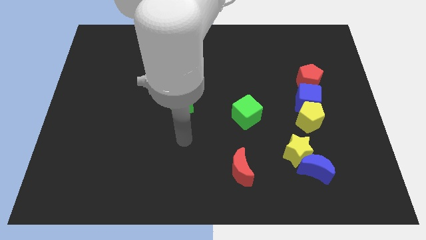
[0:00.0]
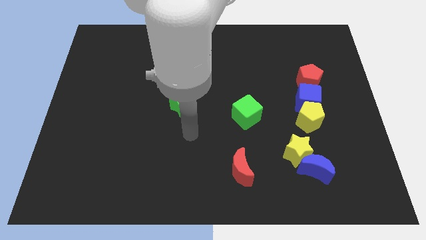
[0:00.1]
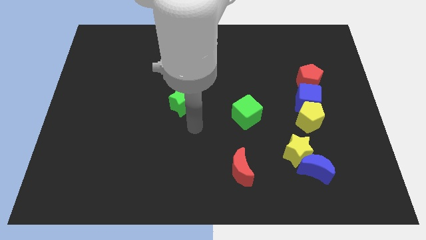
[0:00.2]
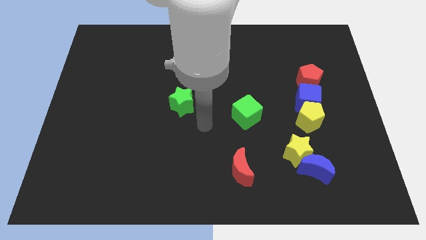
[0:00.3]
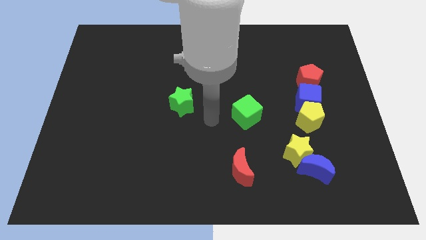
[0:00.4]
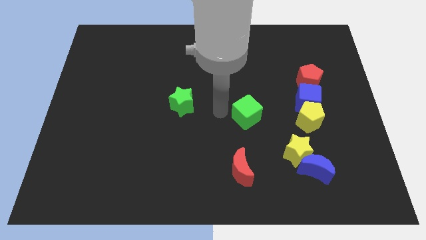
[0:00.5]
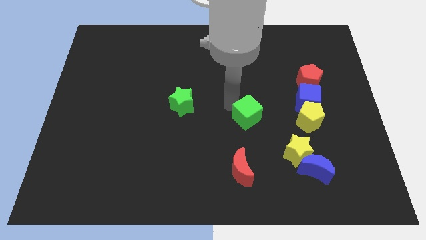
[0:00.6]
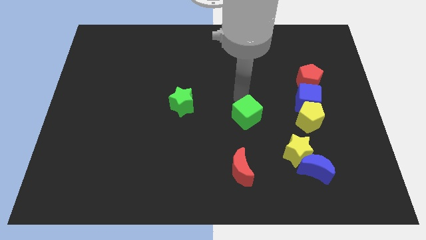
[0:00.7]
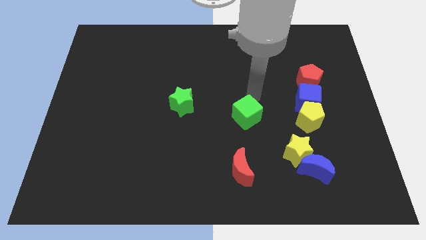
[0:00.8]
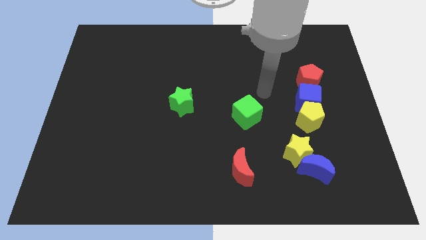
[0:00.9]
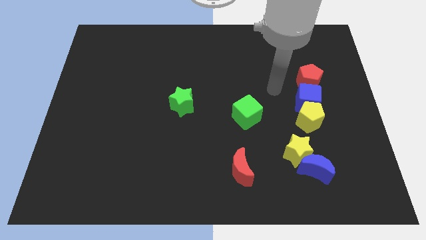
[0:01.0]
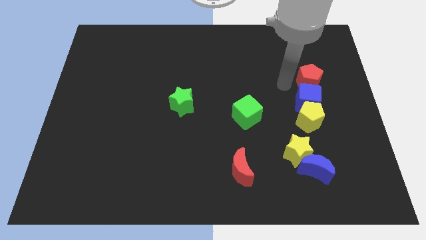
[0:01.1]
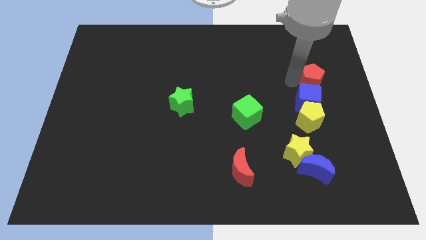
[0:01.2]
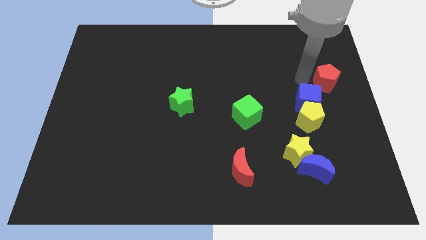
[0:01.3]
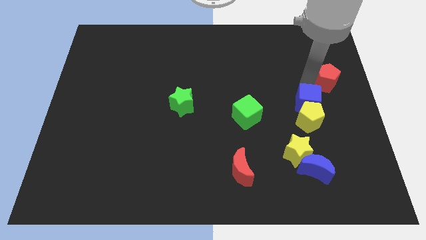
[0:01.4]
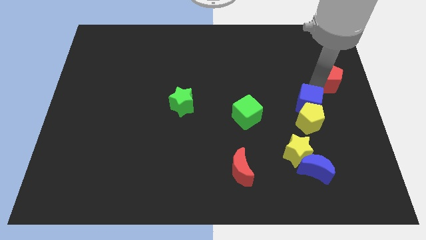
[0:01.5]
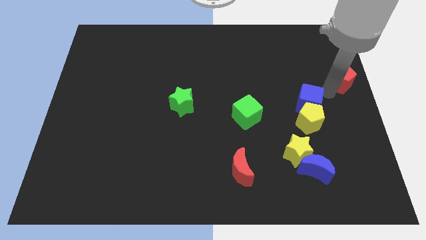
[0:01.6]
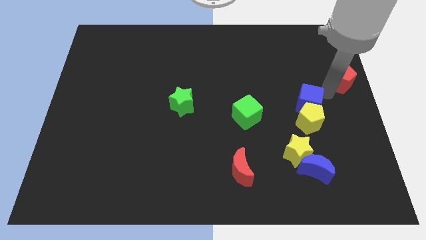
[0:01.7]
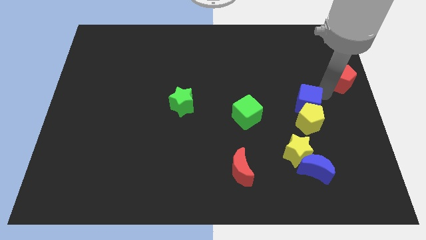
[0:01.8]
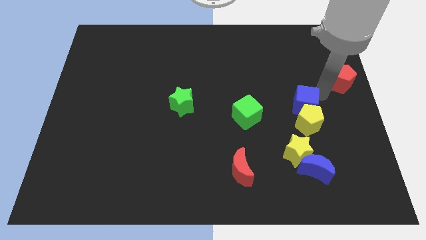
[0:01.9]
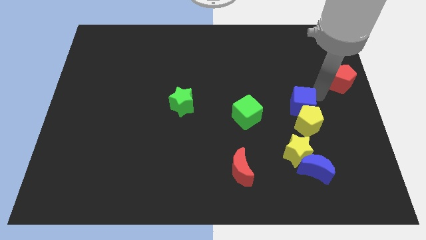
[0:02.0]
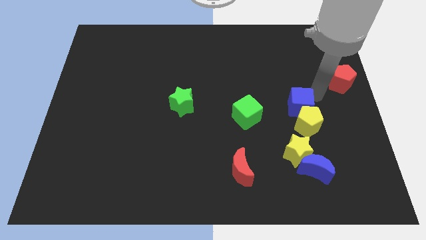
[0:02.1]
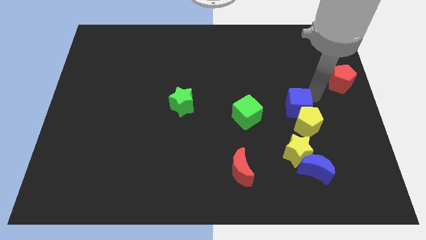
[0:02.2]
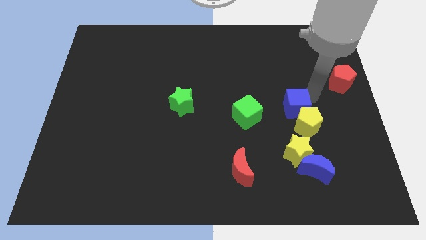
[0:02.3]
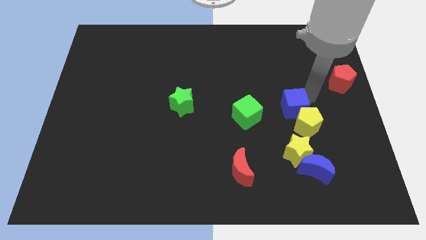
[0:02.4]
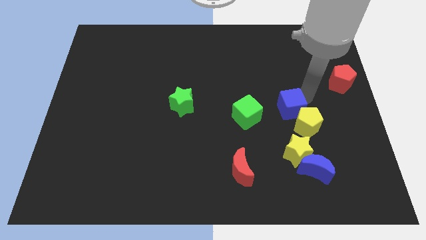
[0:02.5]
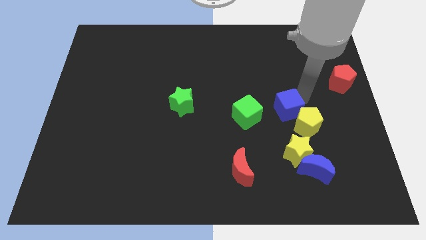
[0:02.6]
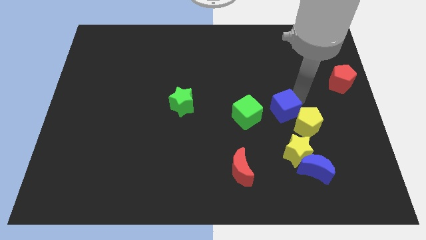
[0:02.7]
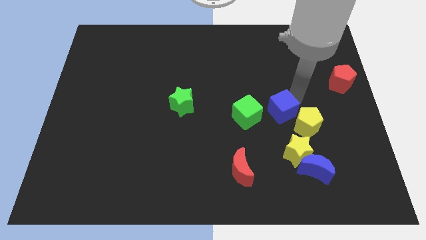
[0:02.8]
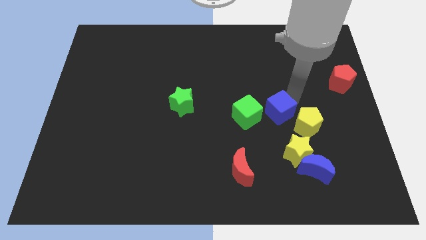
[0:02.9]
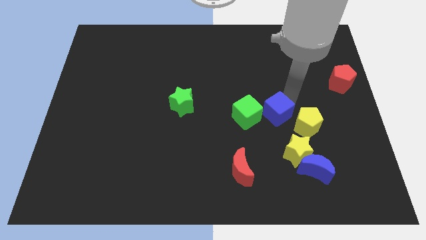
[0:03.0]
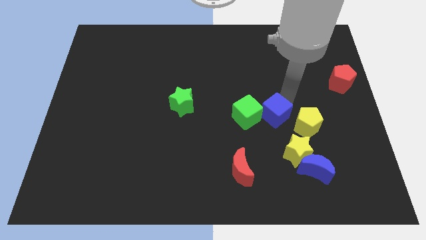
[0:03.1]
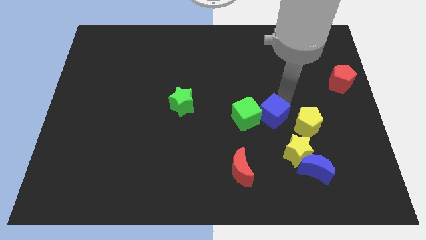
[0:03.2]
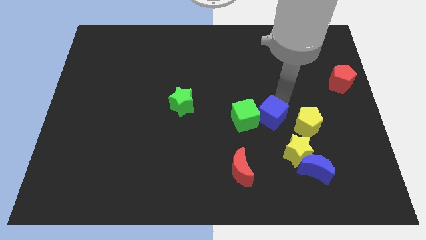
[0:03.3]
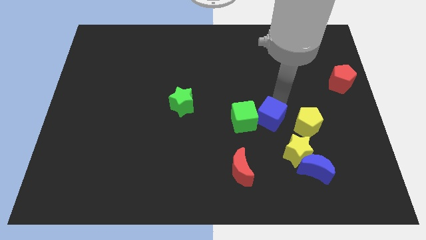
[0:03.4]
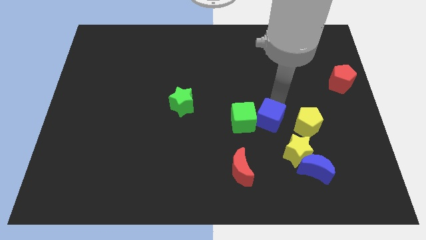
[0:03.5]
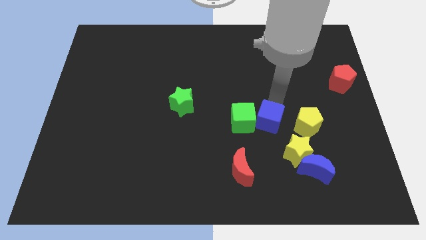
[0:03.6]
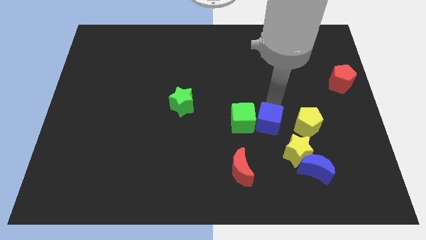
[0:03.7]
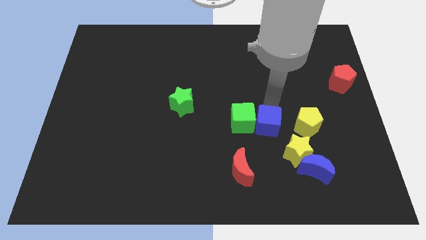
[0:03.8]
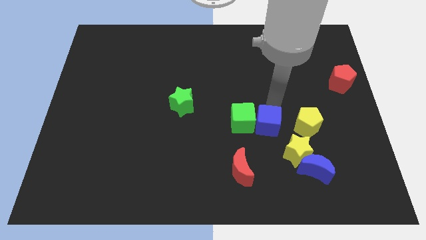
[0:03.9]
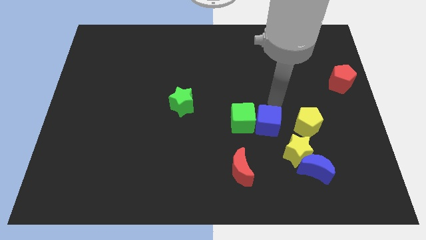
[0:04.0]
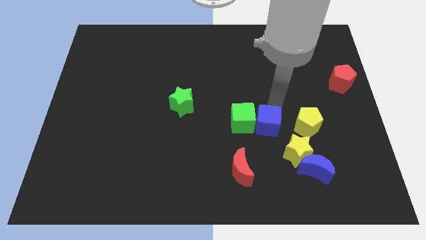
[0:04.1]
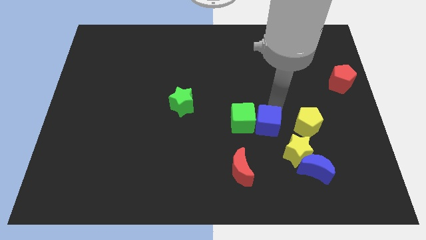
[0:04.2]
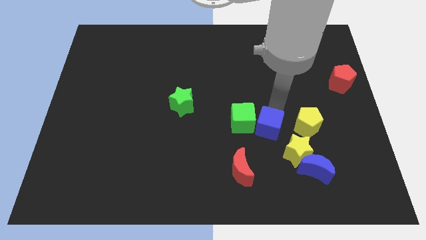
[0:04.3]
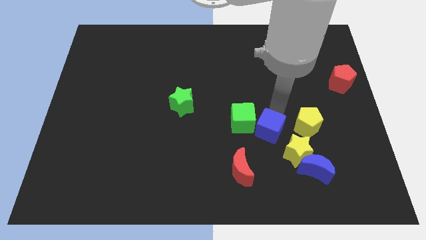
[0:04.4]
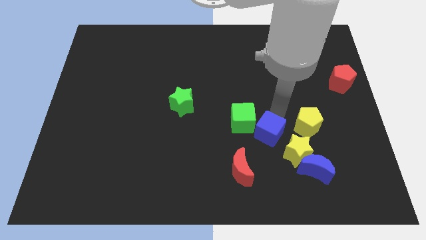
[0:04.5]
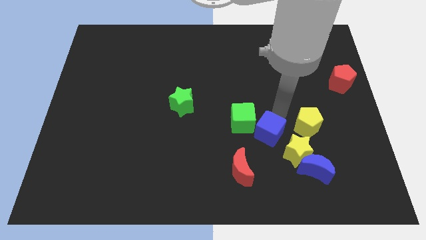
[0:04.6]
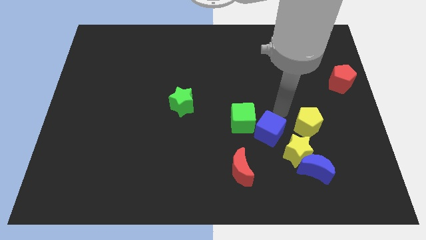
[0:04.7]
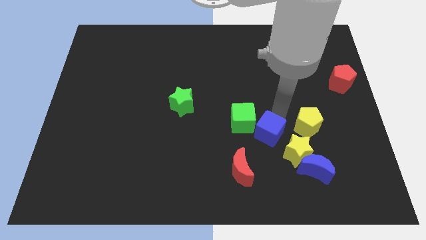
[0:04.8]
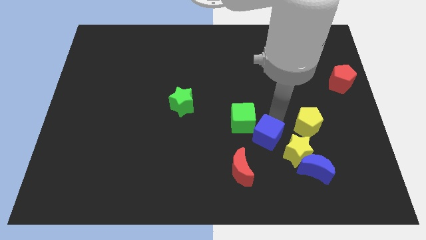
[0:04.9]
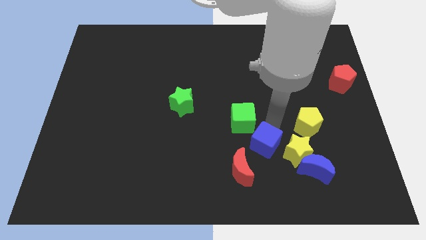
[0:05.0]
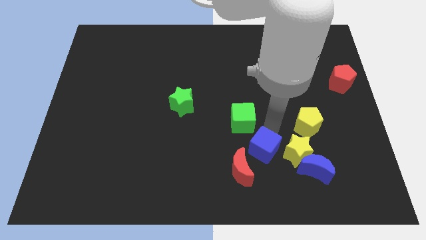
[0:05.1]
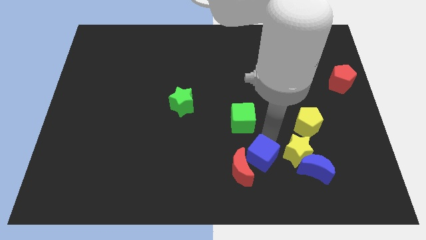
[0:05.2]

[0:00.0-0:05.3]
push the blue cube next to the red moon

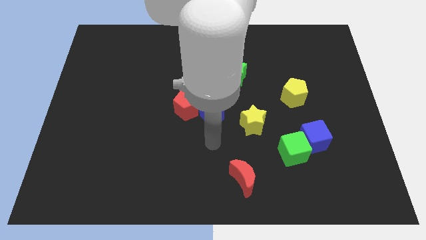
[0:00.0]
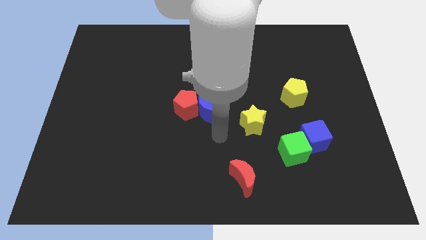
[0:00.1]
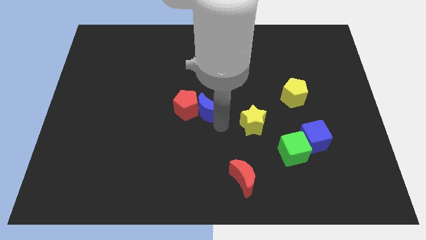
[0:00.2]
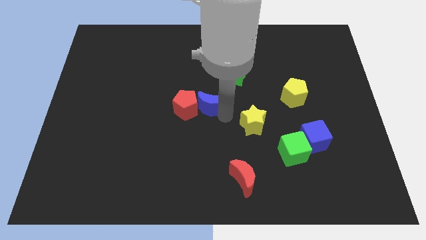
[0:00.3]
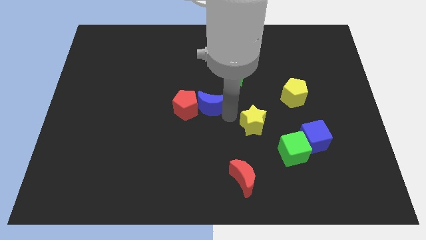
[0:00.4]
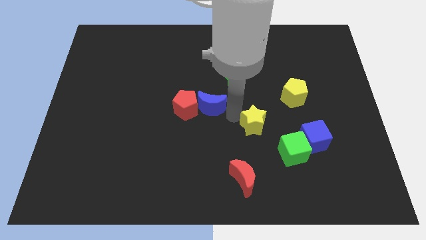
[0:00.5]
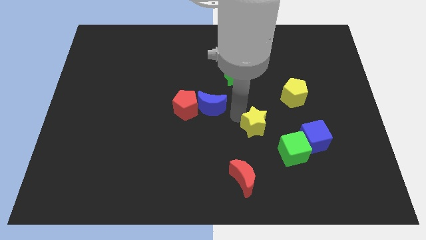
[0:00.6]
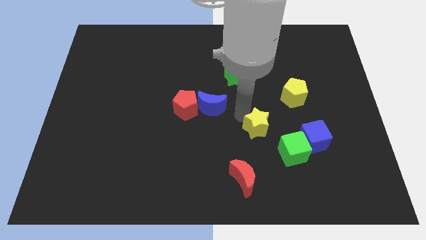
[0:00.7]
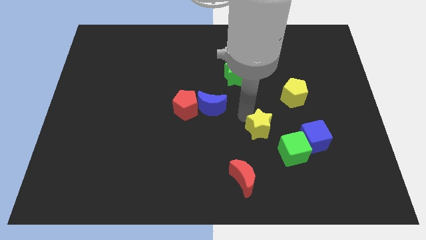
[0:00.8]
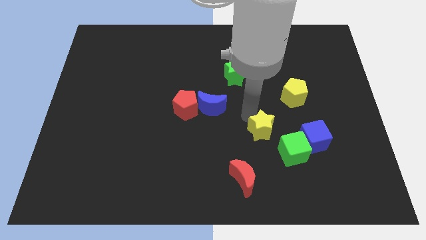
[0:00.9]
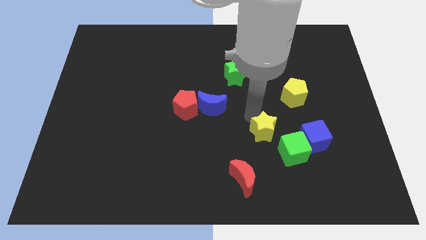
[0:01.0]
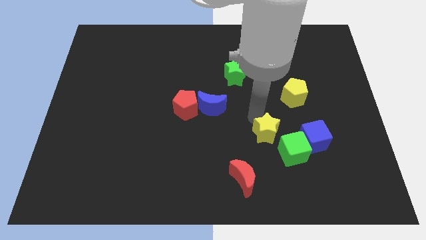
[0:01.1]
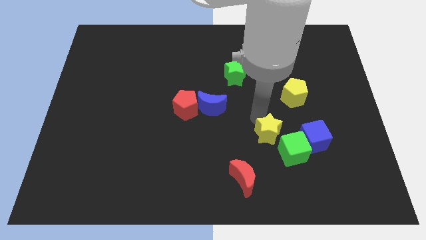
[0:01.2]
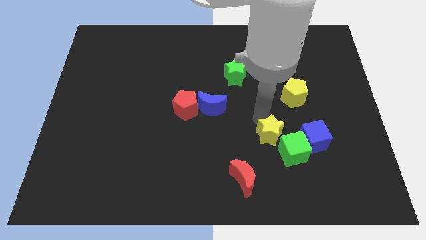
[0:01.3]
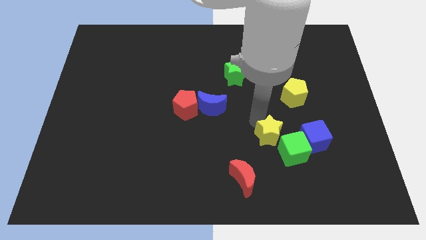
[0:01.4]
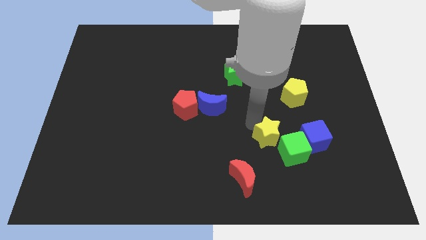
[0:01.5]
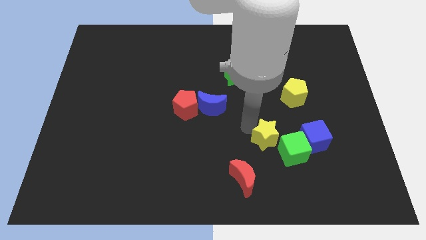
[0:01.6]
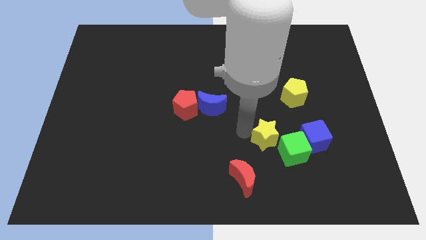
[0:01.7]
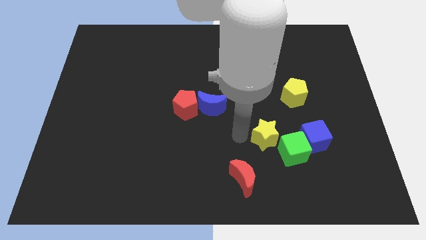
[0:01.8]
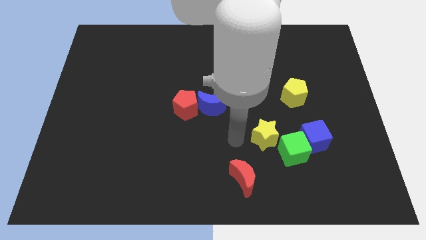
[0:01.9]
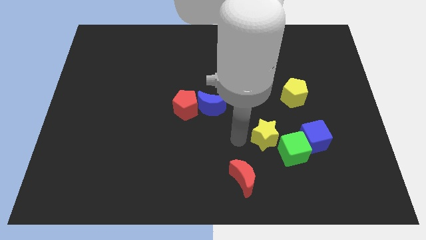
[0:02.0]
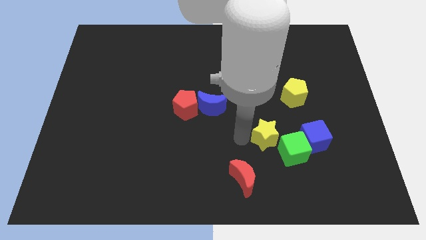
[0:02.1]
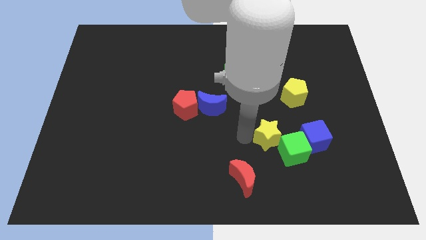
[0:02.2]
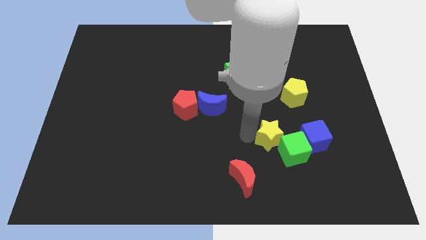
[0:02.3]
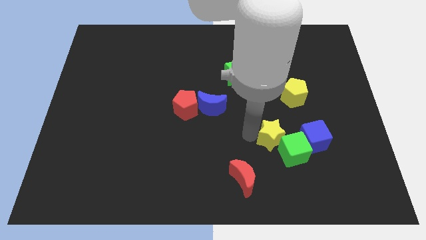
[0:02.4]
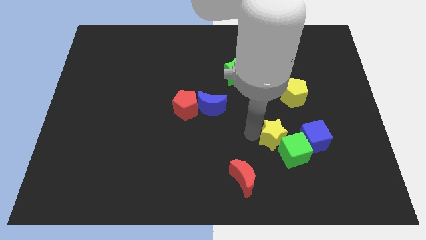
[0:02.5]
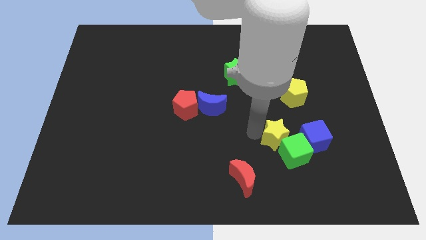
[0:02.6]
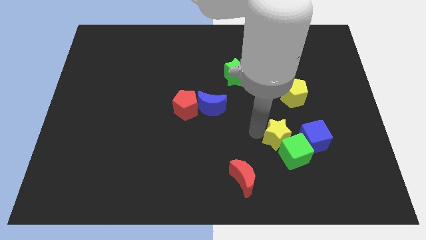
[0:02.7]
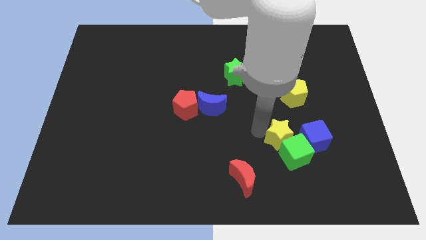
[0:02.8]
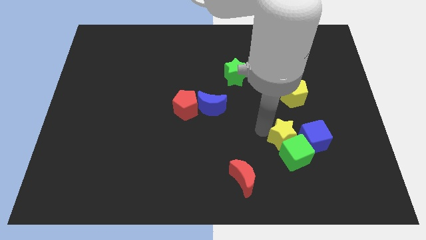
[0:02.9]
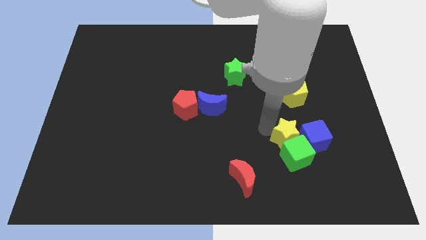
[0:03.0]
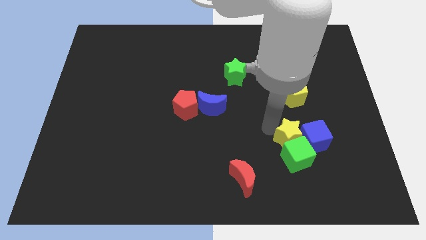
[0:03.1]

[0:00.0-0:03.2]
put the yellow star close to the blue cube
